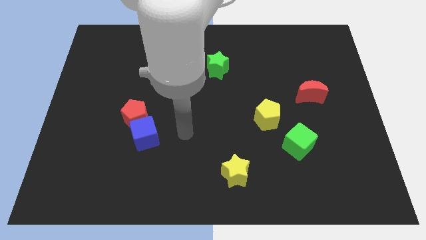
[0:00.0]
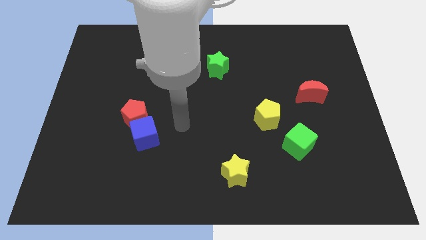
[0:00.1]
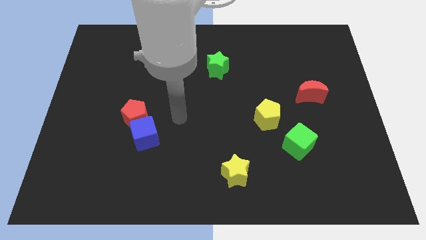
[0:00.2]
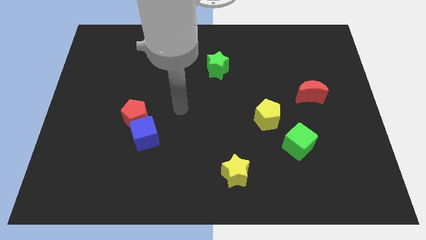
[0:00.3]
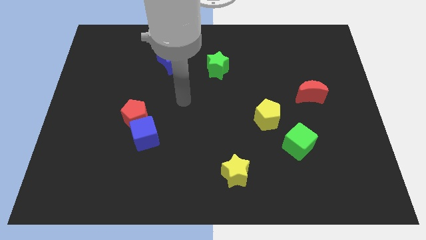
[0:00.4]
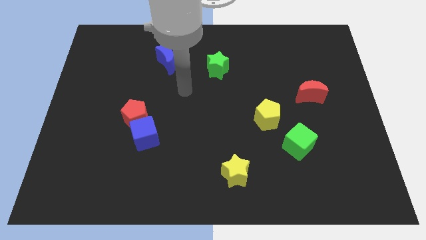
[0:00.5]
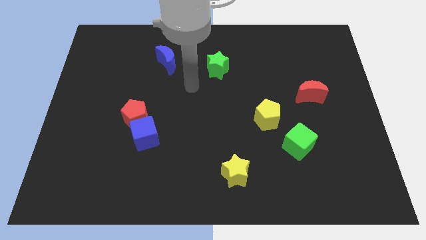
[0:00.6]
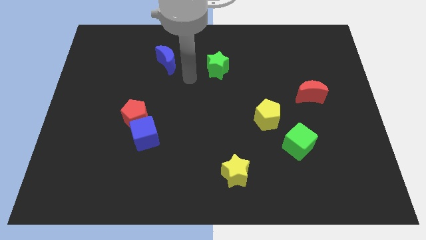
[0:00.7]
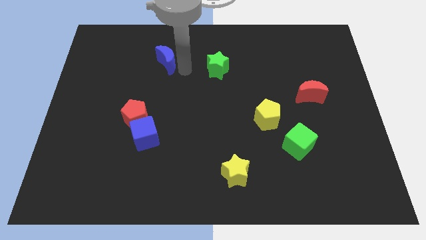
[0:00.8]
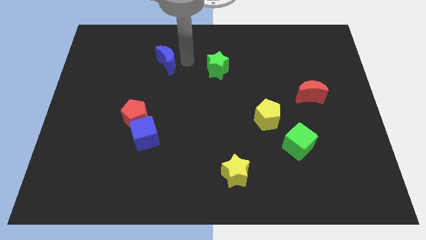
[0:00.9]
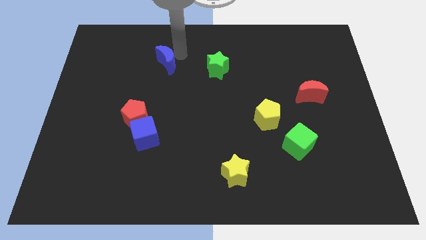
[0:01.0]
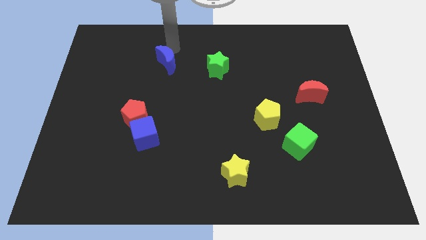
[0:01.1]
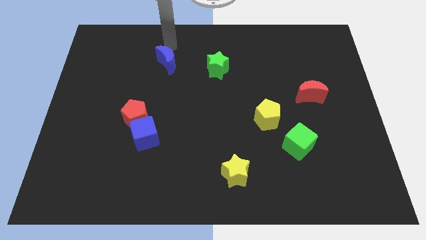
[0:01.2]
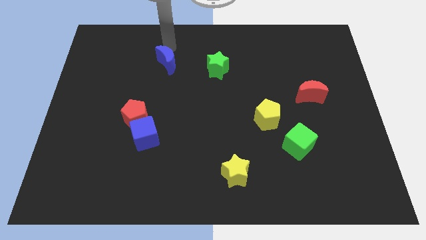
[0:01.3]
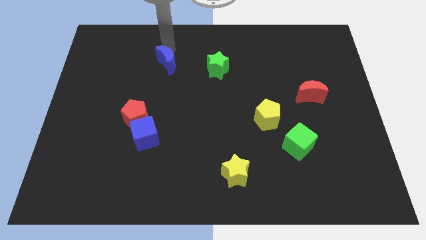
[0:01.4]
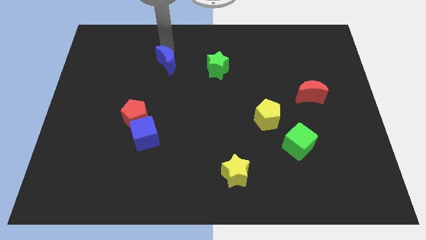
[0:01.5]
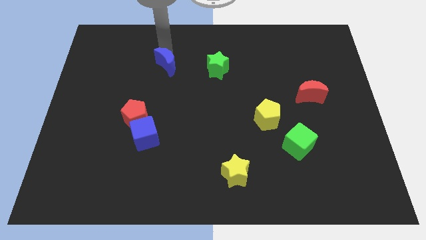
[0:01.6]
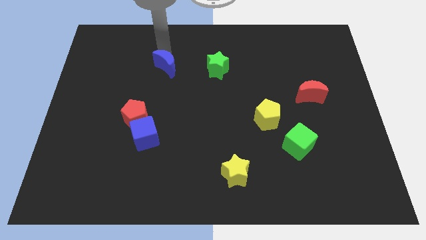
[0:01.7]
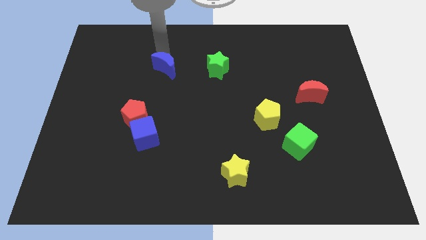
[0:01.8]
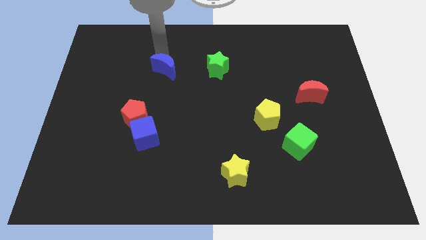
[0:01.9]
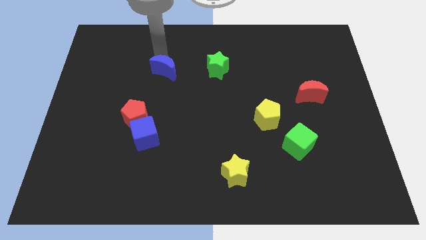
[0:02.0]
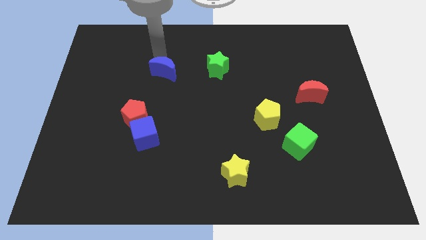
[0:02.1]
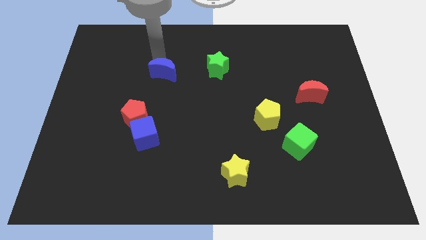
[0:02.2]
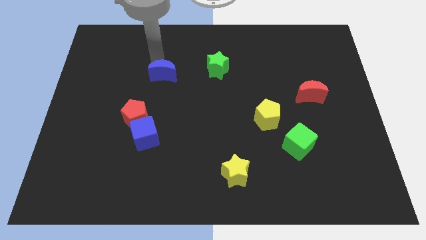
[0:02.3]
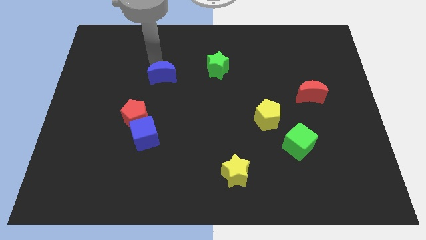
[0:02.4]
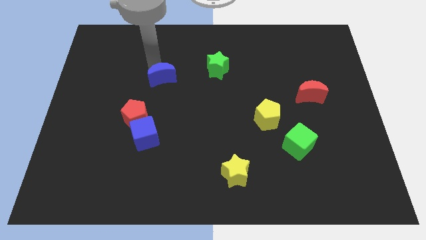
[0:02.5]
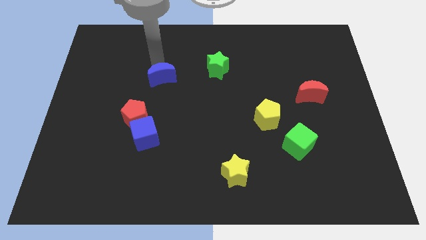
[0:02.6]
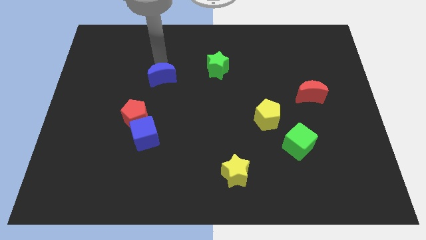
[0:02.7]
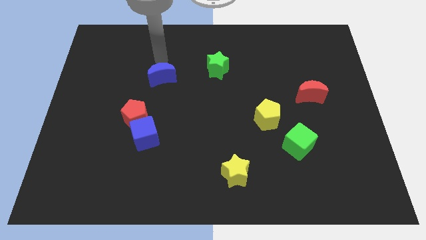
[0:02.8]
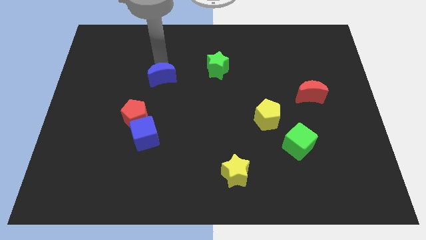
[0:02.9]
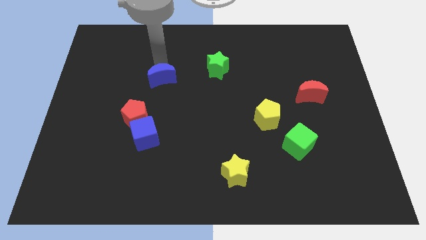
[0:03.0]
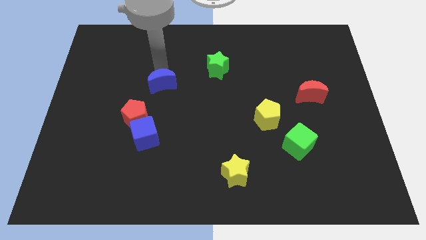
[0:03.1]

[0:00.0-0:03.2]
slightly move the blue moon downwards

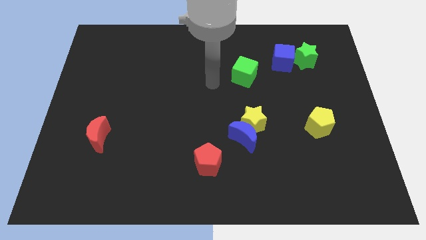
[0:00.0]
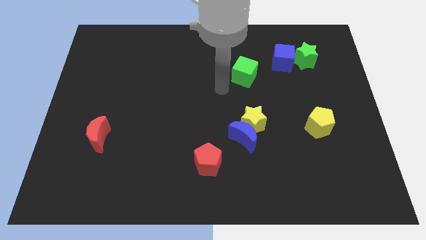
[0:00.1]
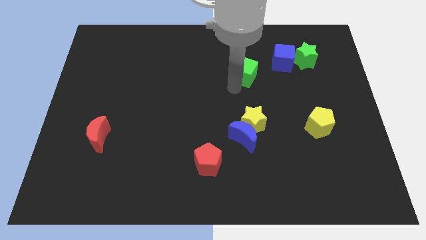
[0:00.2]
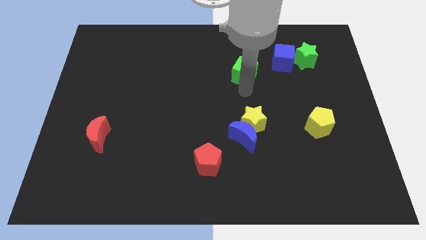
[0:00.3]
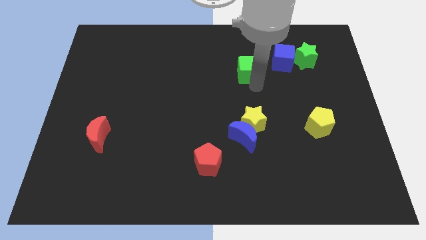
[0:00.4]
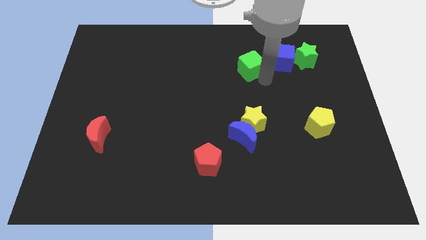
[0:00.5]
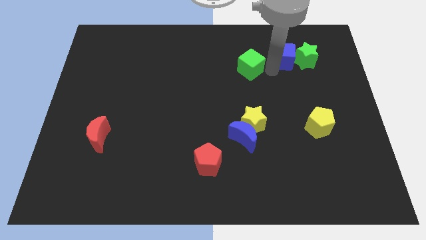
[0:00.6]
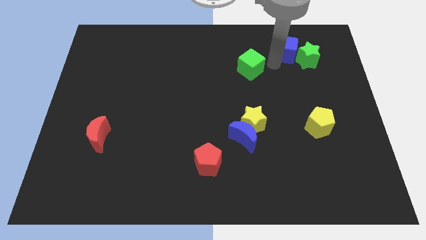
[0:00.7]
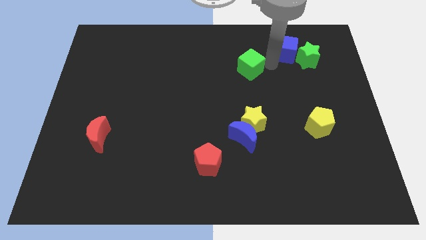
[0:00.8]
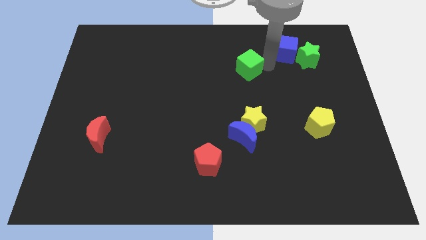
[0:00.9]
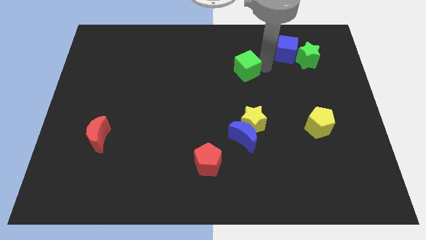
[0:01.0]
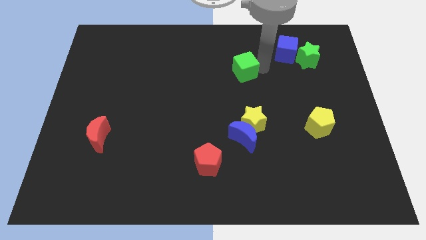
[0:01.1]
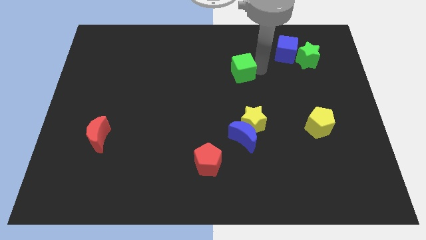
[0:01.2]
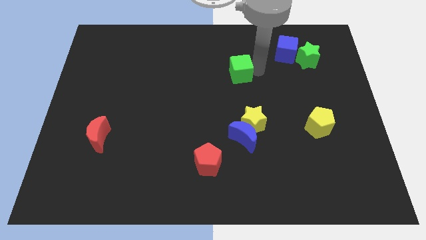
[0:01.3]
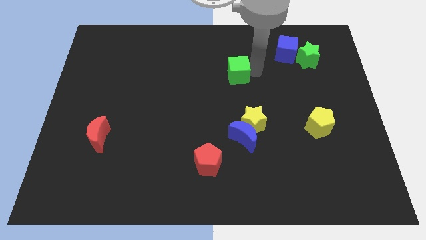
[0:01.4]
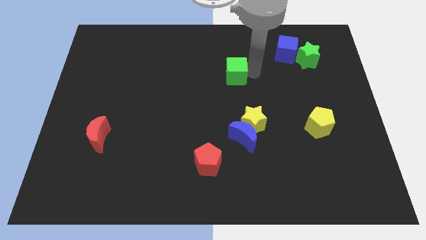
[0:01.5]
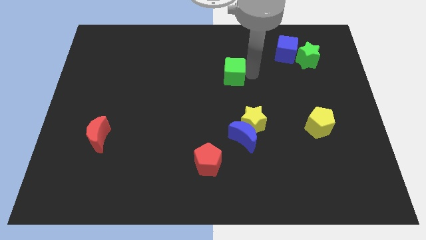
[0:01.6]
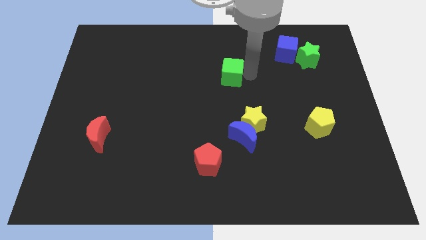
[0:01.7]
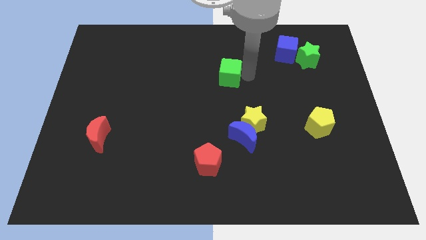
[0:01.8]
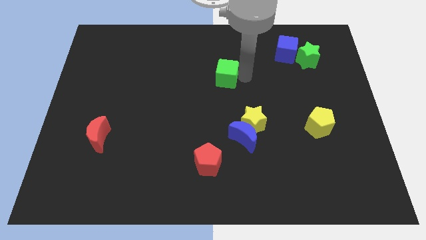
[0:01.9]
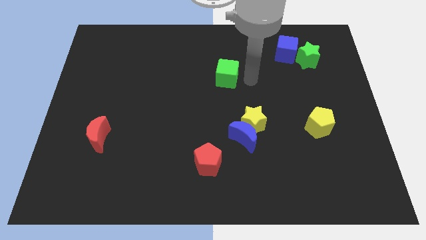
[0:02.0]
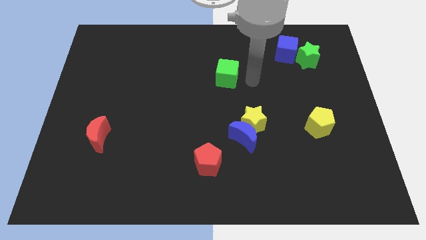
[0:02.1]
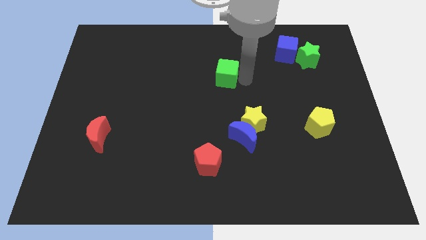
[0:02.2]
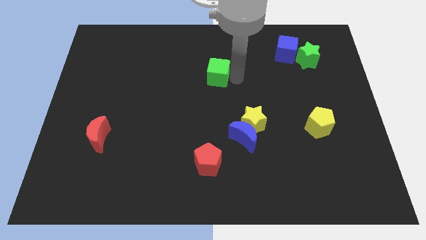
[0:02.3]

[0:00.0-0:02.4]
slide the green cube a little left

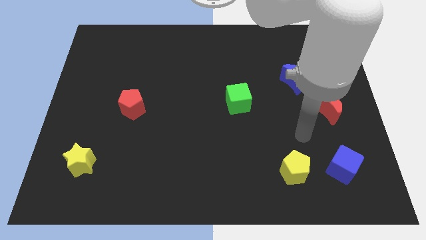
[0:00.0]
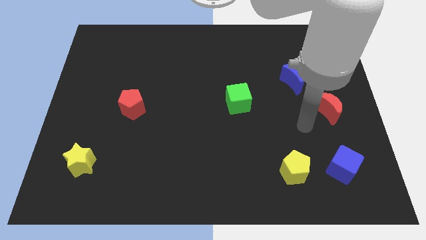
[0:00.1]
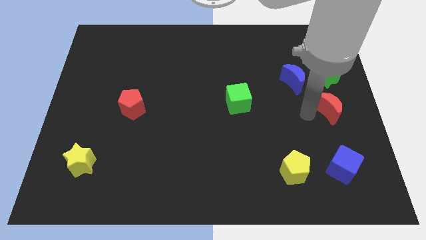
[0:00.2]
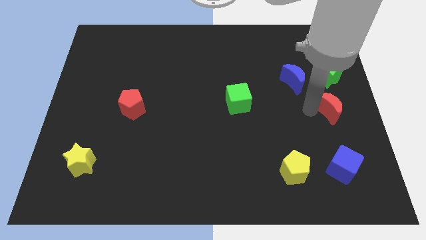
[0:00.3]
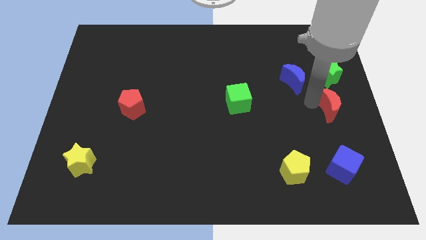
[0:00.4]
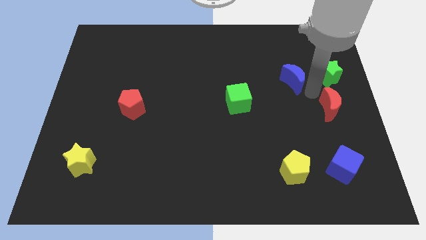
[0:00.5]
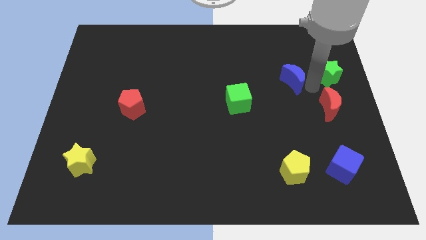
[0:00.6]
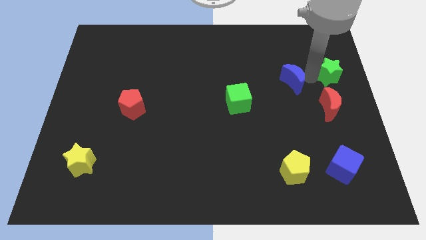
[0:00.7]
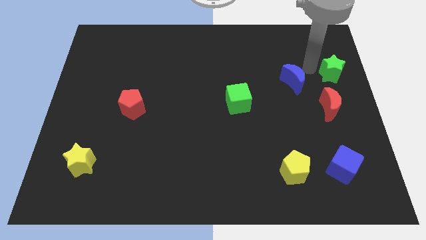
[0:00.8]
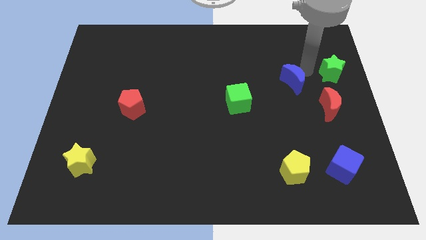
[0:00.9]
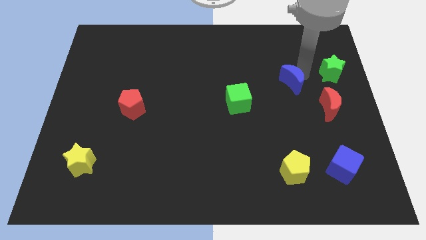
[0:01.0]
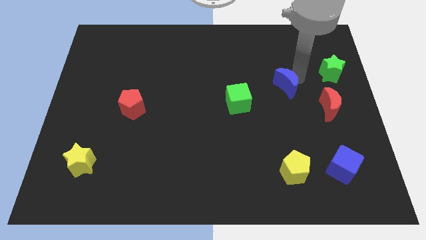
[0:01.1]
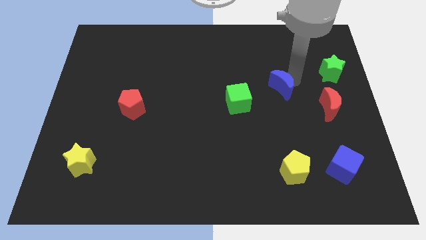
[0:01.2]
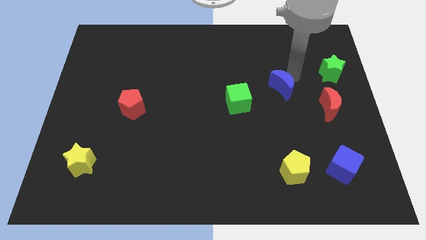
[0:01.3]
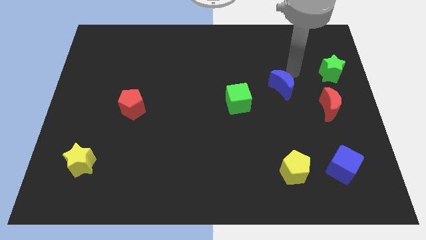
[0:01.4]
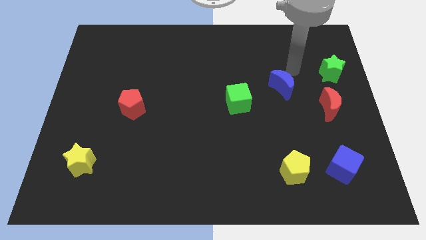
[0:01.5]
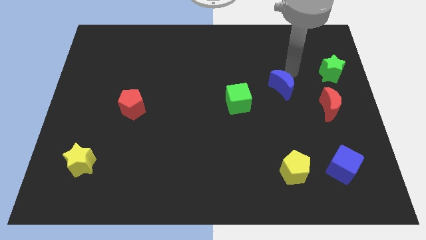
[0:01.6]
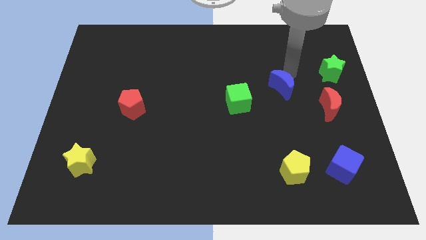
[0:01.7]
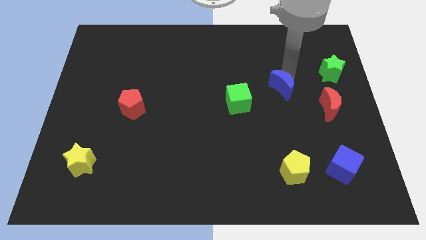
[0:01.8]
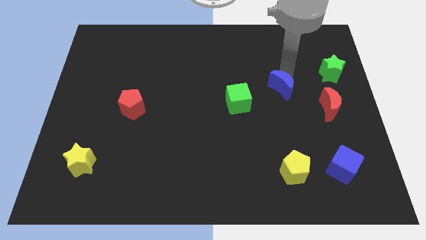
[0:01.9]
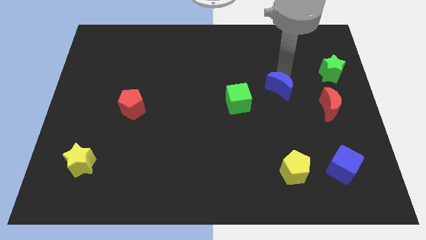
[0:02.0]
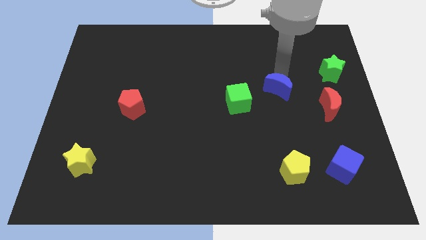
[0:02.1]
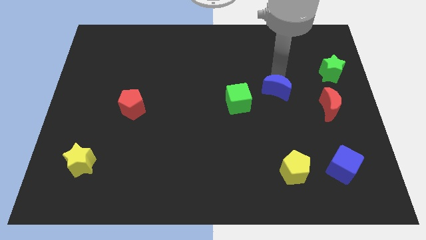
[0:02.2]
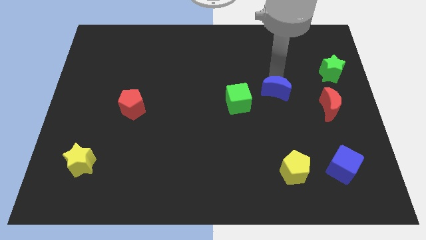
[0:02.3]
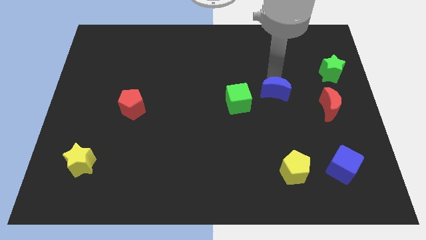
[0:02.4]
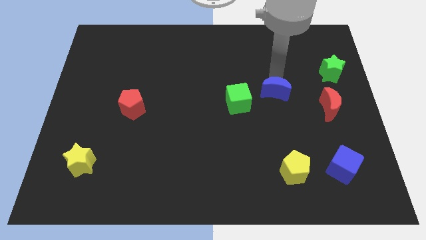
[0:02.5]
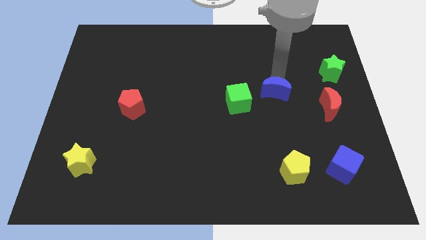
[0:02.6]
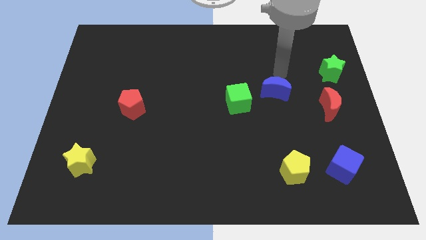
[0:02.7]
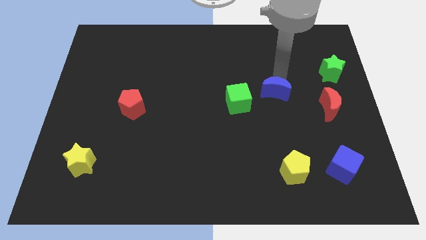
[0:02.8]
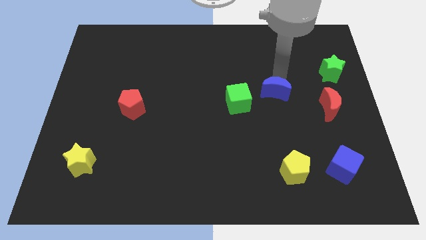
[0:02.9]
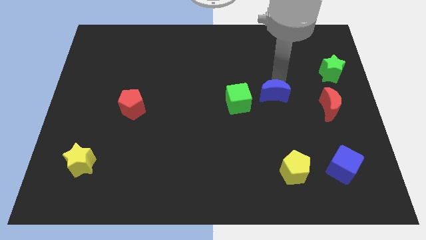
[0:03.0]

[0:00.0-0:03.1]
move the blue moon downwards and left a little
